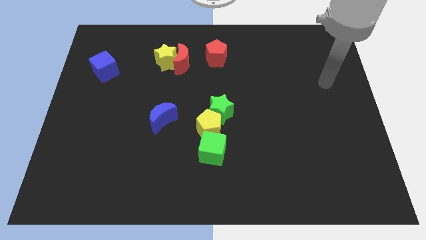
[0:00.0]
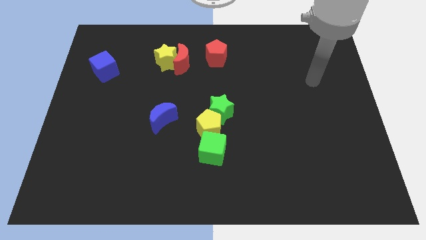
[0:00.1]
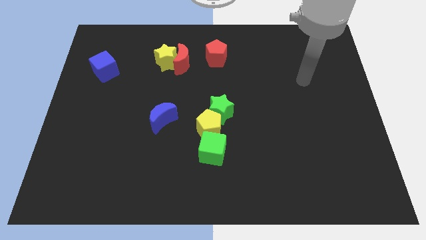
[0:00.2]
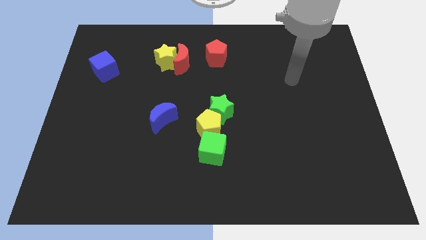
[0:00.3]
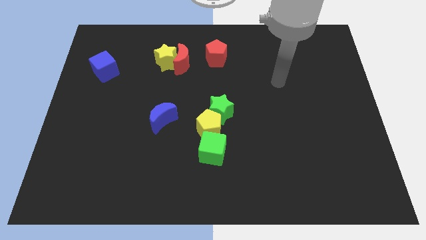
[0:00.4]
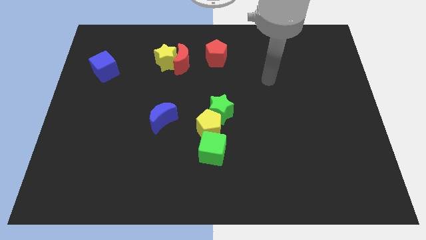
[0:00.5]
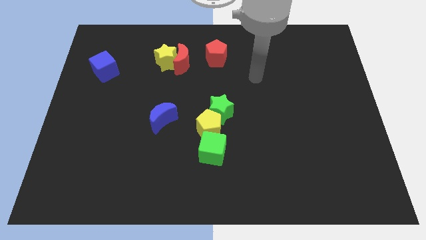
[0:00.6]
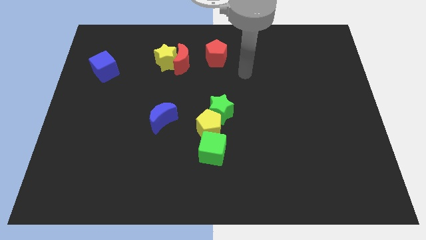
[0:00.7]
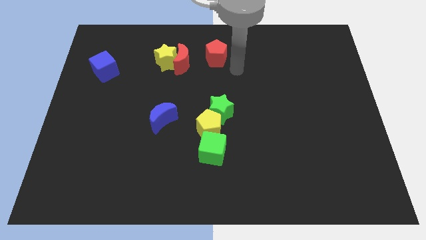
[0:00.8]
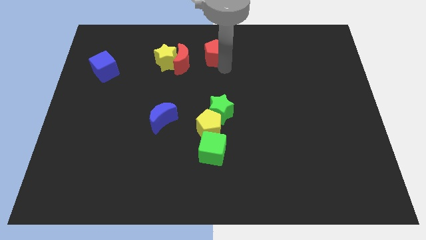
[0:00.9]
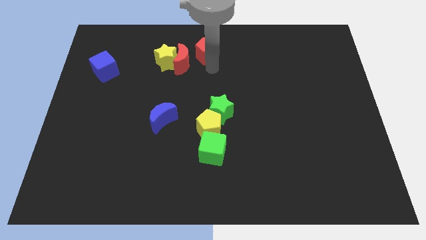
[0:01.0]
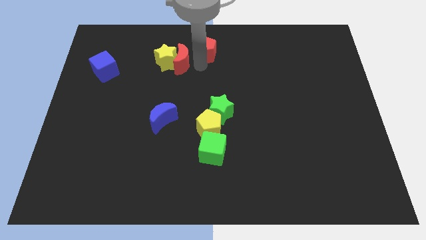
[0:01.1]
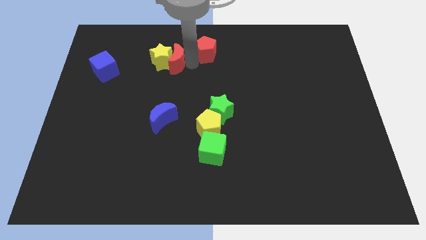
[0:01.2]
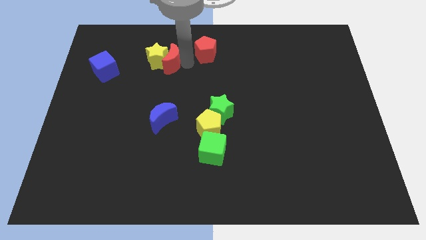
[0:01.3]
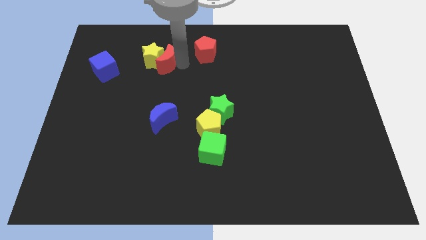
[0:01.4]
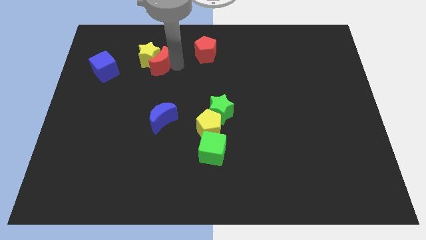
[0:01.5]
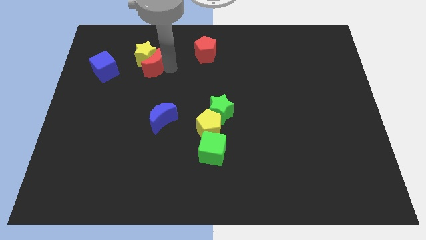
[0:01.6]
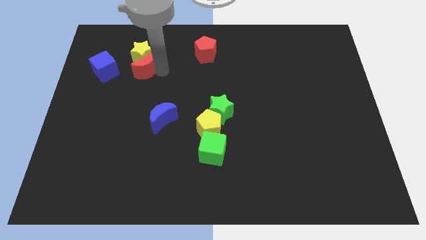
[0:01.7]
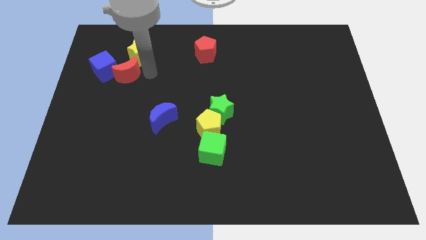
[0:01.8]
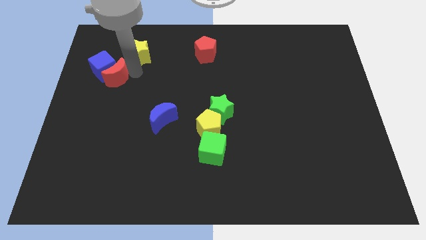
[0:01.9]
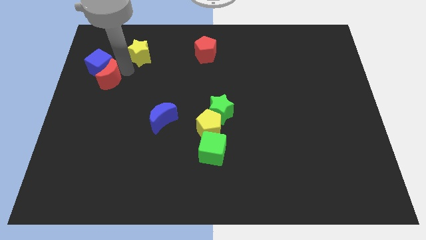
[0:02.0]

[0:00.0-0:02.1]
move the yellow star away from the red moon

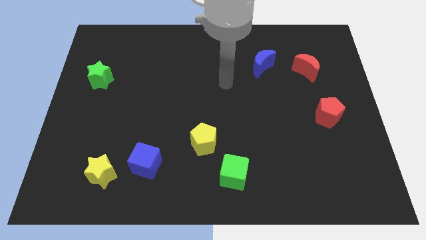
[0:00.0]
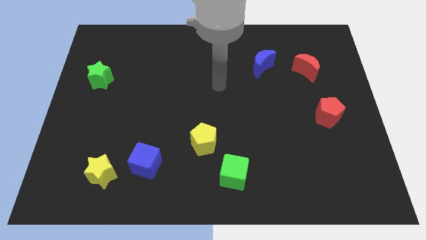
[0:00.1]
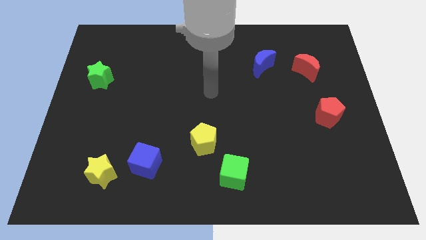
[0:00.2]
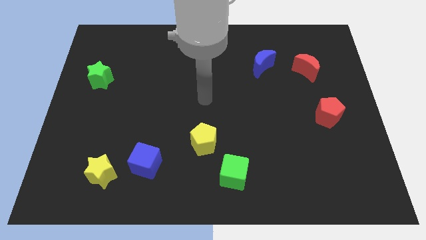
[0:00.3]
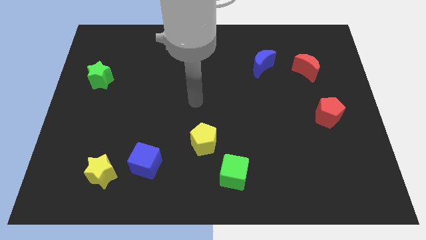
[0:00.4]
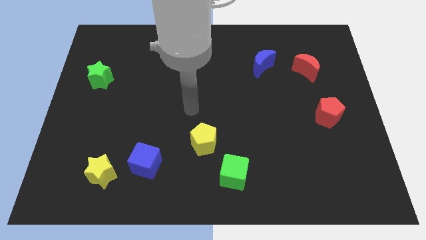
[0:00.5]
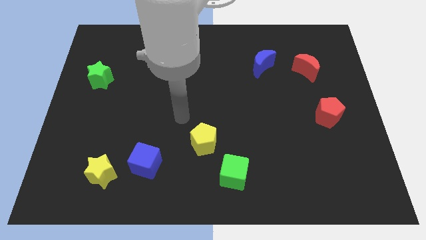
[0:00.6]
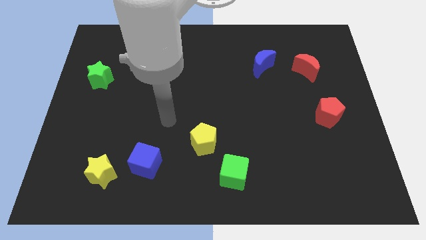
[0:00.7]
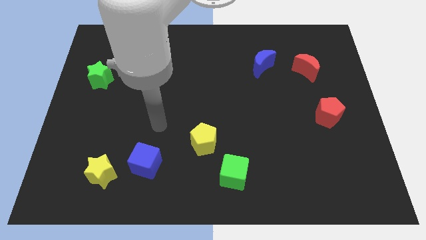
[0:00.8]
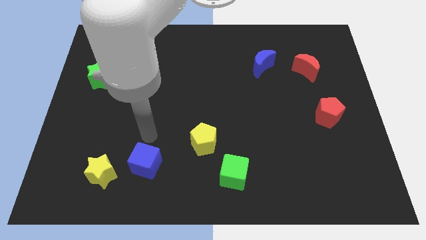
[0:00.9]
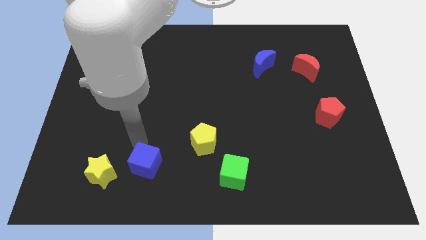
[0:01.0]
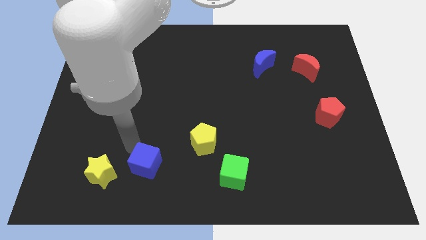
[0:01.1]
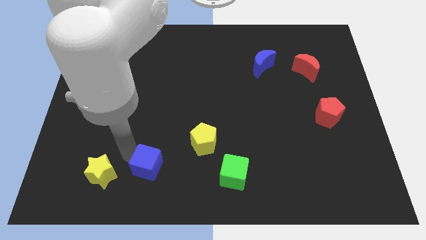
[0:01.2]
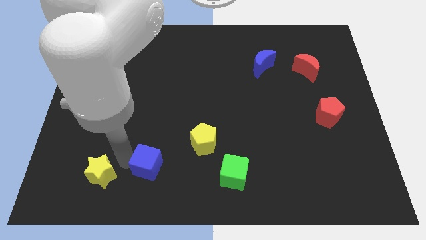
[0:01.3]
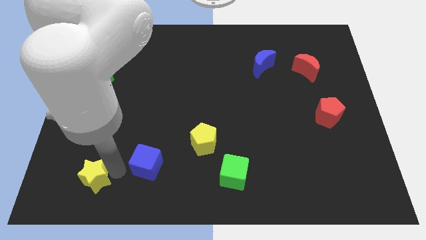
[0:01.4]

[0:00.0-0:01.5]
separate the blue cube from the yellow star

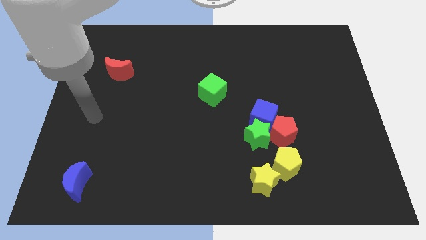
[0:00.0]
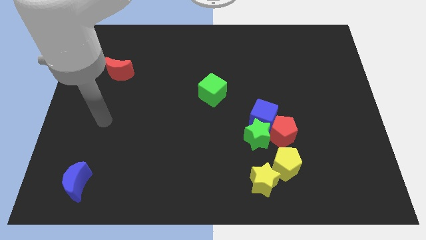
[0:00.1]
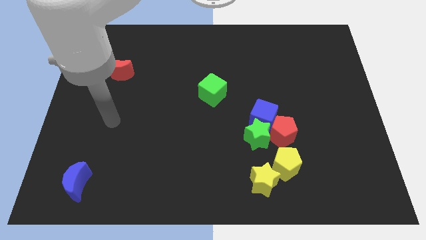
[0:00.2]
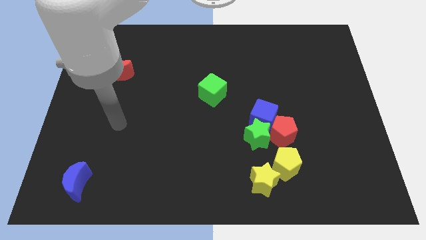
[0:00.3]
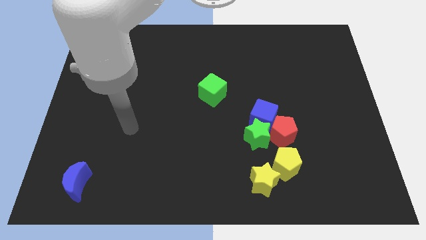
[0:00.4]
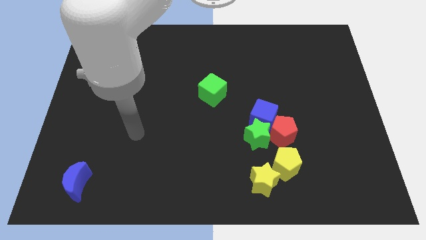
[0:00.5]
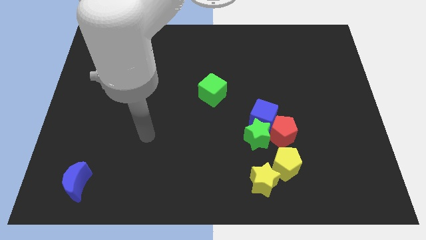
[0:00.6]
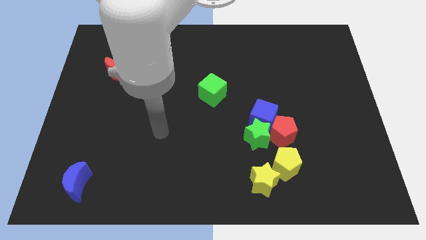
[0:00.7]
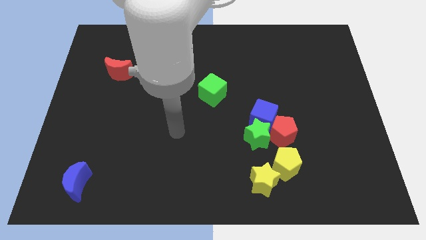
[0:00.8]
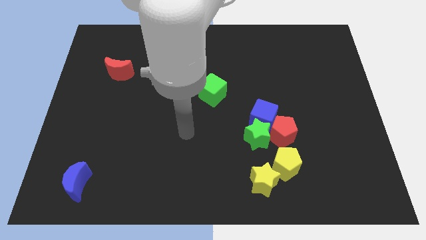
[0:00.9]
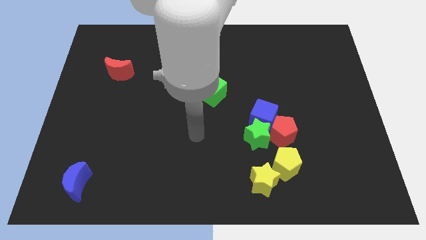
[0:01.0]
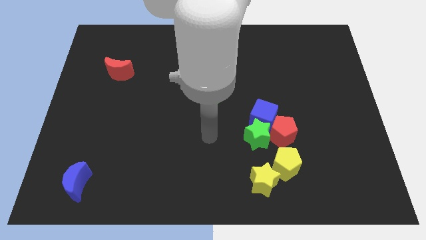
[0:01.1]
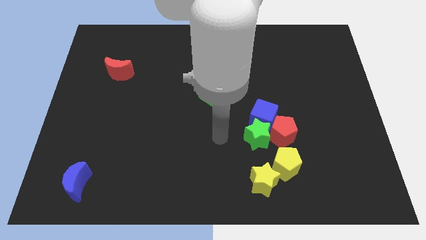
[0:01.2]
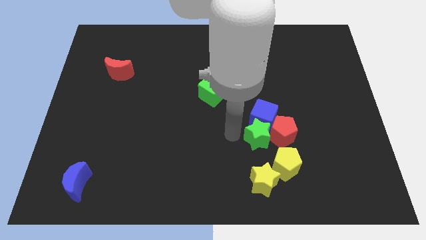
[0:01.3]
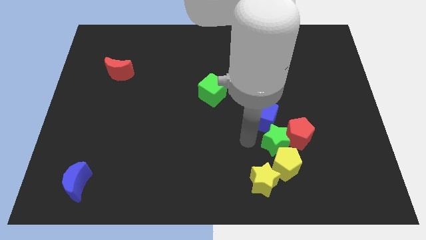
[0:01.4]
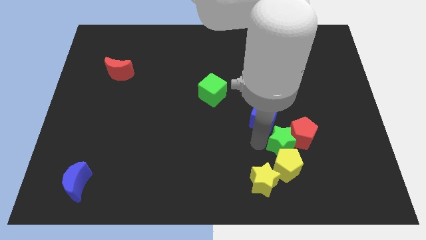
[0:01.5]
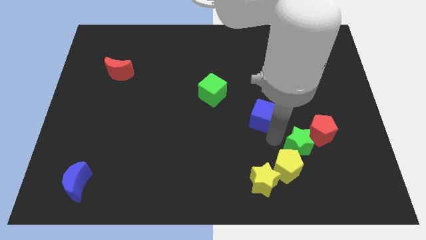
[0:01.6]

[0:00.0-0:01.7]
move the blue cube away from the green star and red pentagon

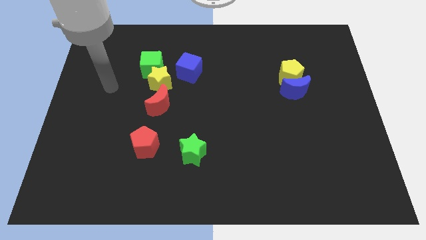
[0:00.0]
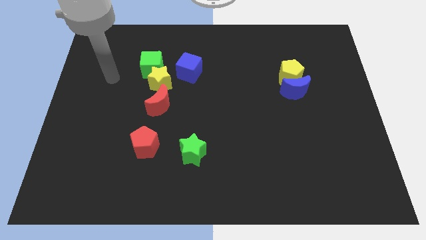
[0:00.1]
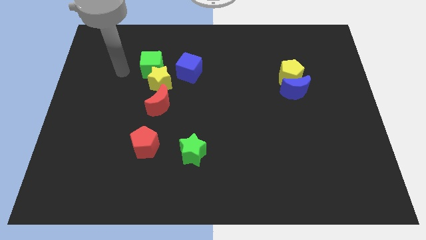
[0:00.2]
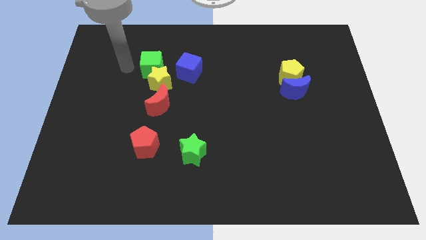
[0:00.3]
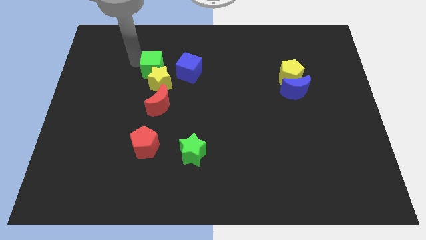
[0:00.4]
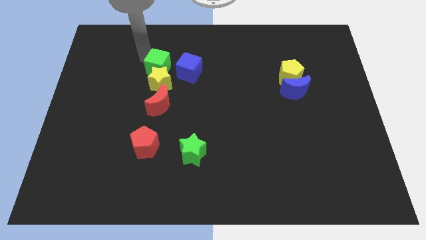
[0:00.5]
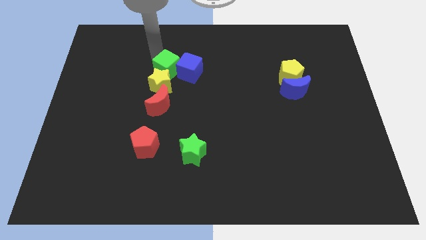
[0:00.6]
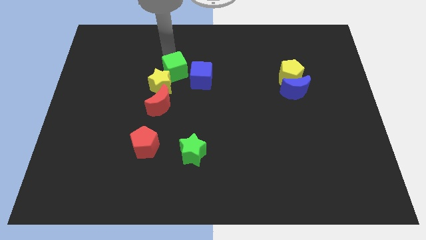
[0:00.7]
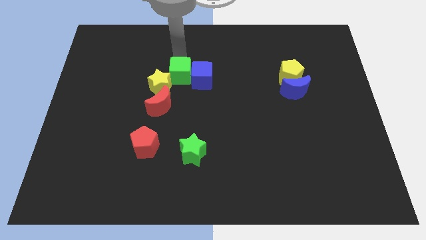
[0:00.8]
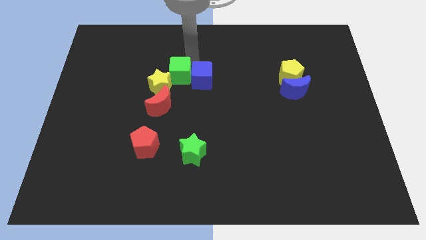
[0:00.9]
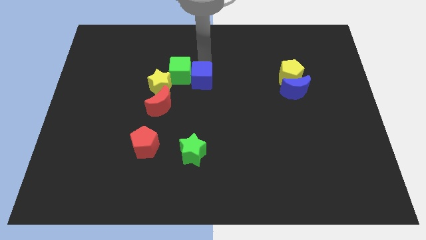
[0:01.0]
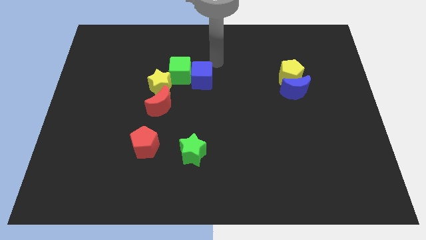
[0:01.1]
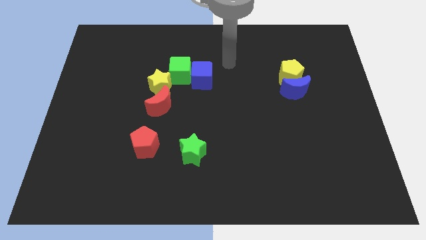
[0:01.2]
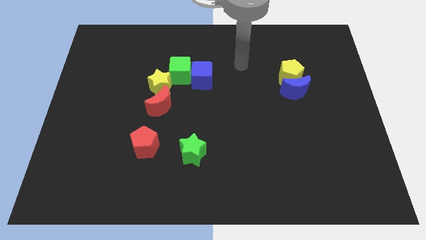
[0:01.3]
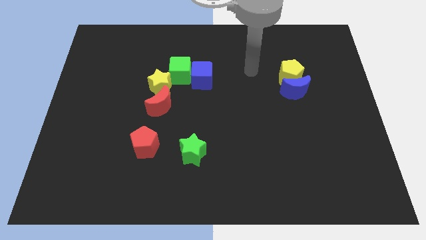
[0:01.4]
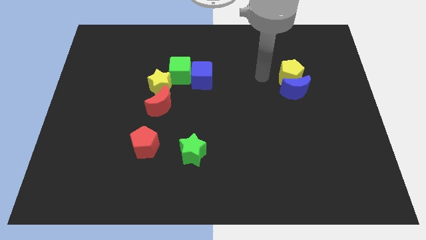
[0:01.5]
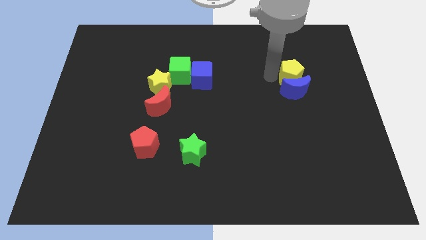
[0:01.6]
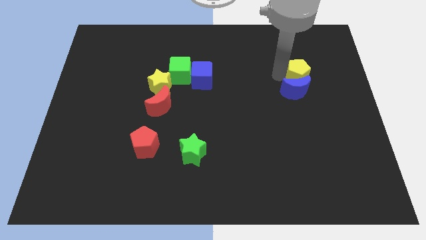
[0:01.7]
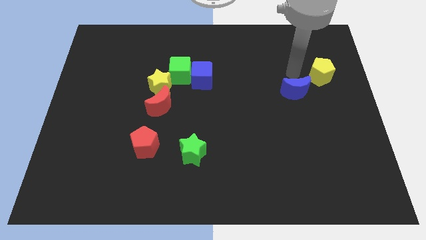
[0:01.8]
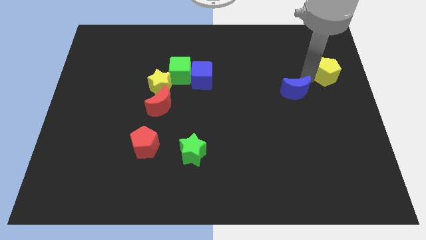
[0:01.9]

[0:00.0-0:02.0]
pull the blue moon apart from the yellow pentagon

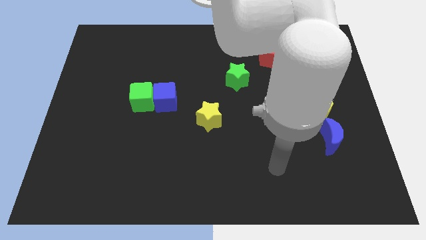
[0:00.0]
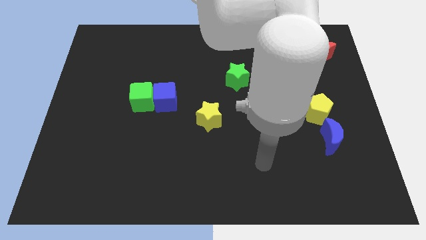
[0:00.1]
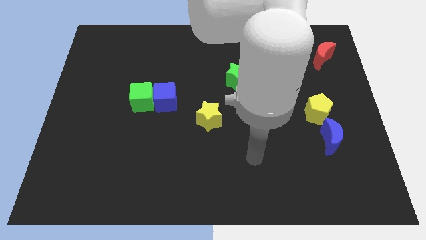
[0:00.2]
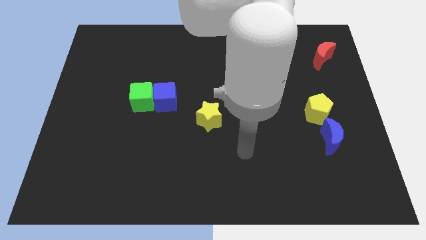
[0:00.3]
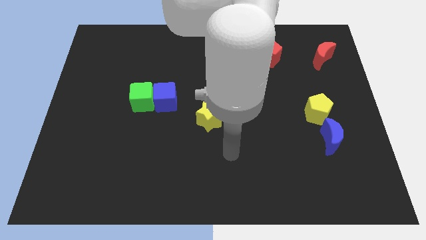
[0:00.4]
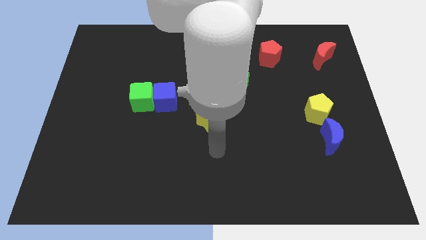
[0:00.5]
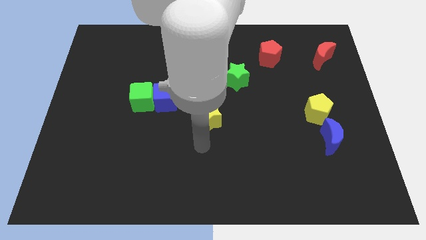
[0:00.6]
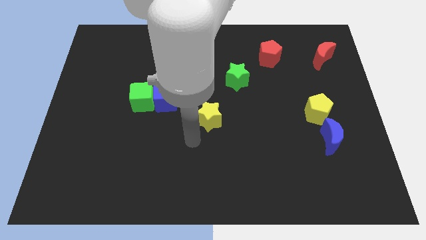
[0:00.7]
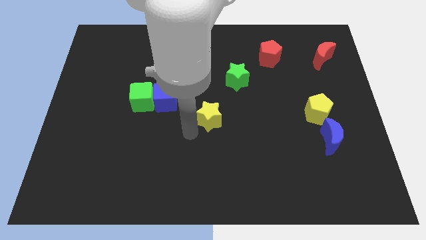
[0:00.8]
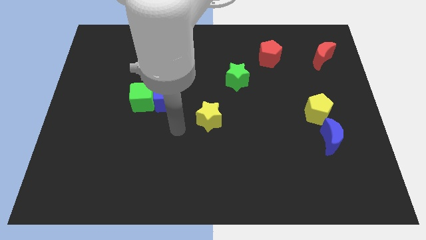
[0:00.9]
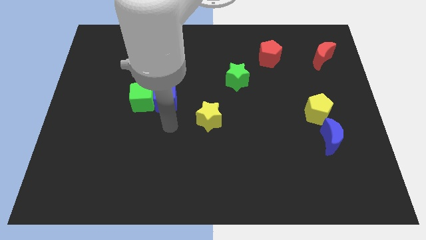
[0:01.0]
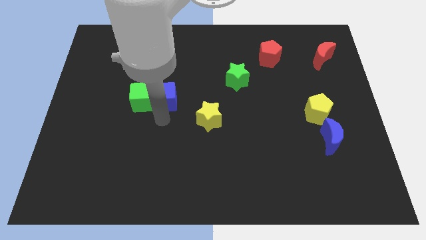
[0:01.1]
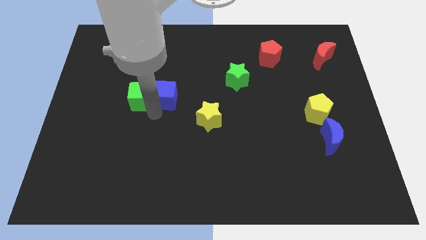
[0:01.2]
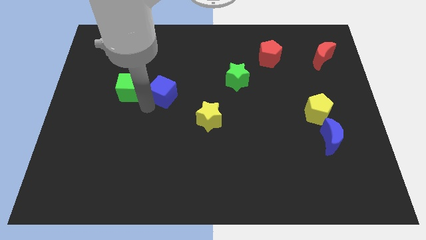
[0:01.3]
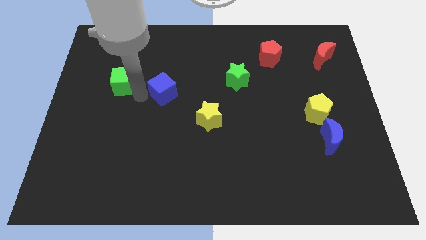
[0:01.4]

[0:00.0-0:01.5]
move the blue cube away from the green cube

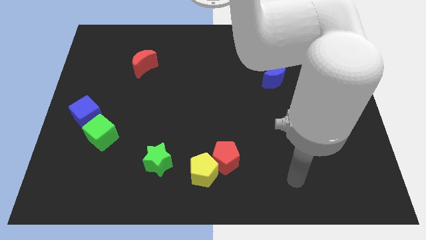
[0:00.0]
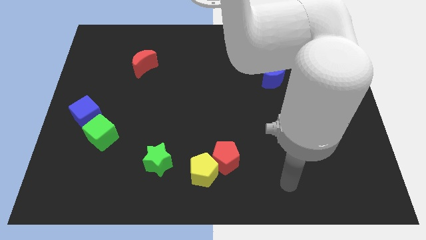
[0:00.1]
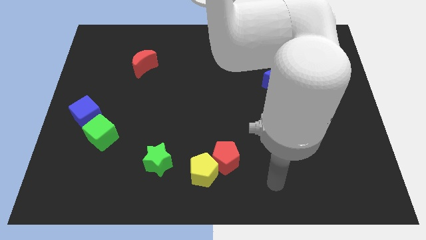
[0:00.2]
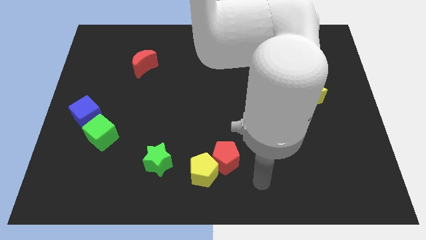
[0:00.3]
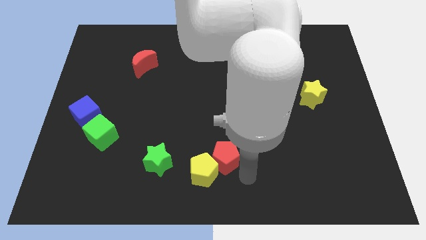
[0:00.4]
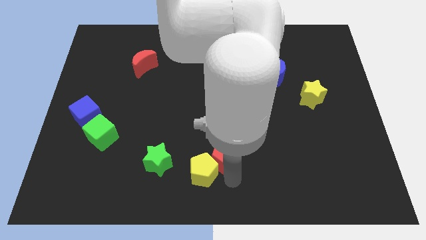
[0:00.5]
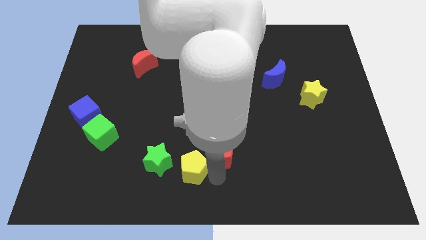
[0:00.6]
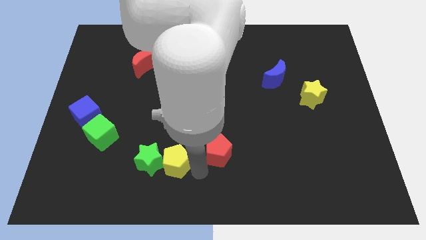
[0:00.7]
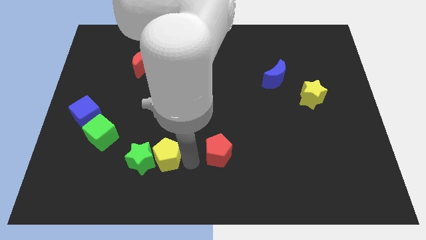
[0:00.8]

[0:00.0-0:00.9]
pull the red pentagon apart from the yellow pentagon
